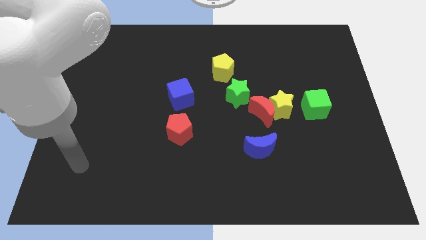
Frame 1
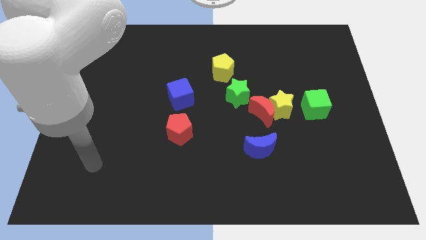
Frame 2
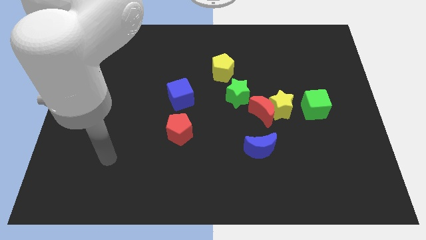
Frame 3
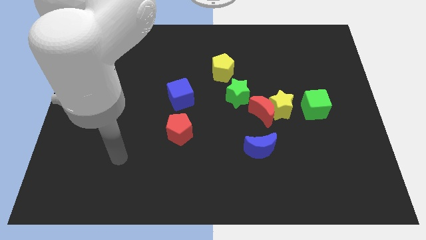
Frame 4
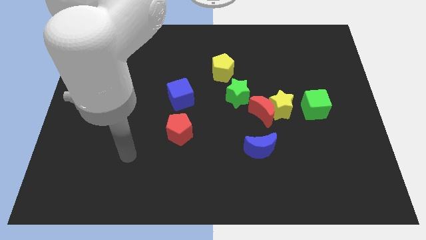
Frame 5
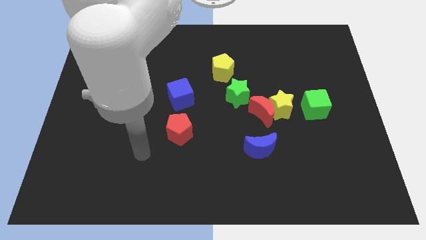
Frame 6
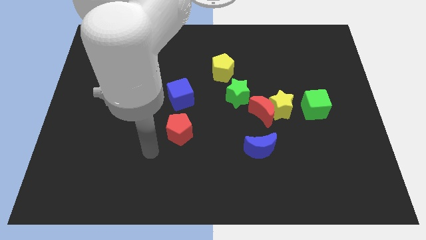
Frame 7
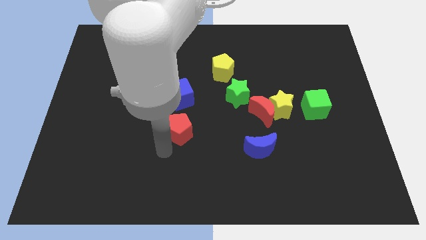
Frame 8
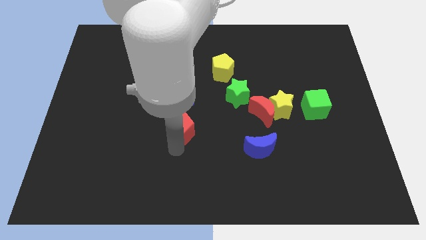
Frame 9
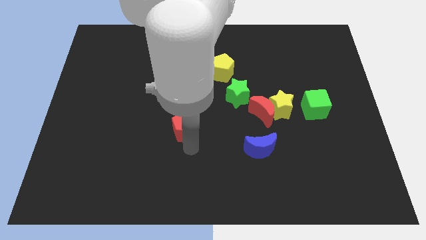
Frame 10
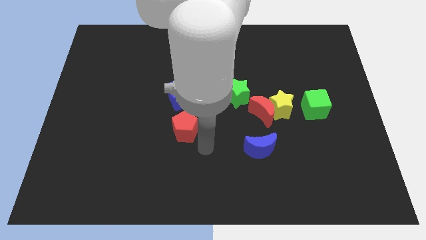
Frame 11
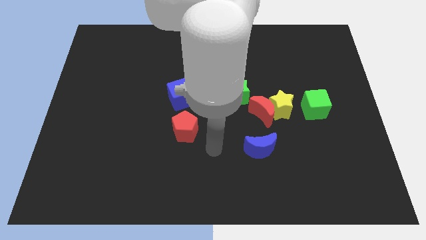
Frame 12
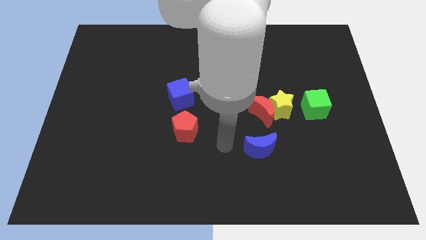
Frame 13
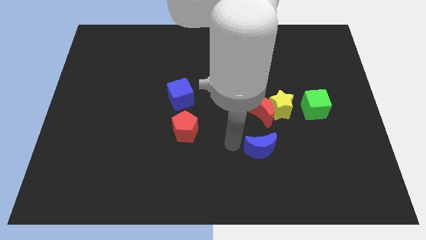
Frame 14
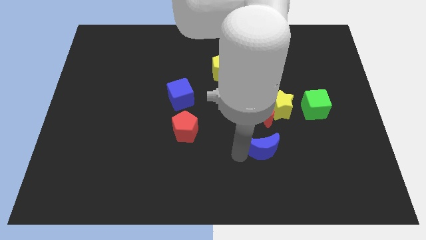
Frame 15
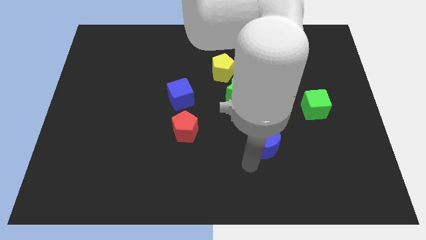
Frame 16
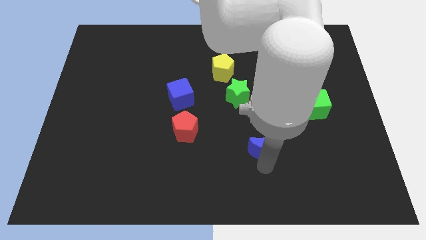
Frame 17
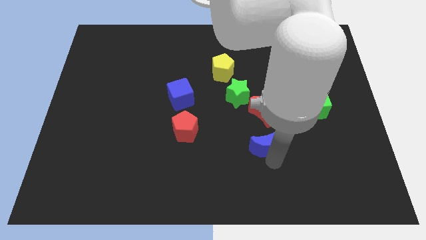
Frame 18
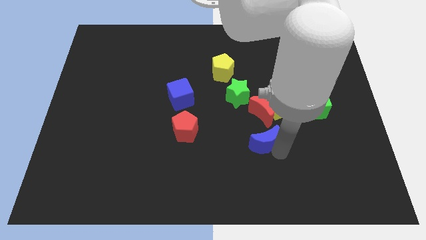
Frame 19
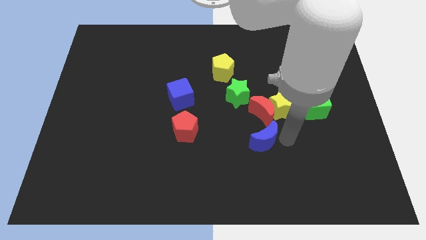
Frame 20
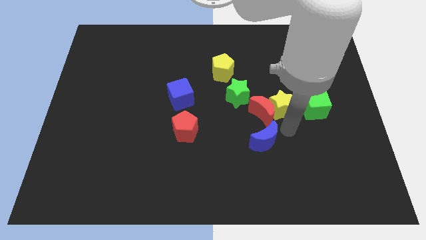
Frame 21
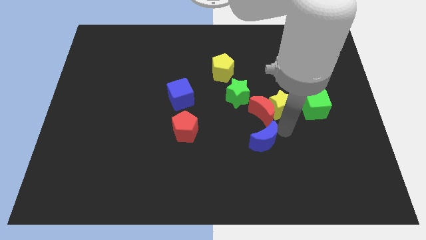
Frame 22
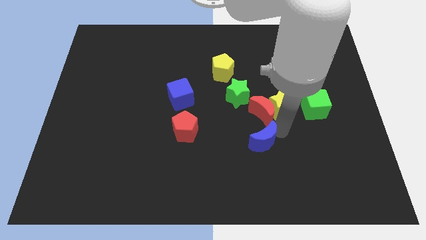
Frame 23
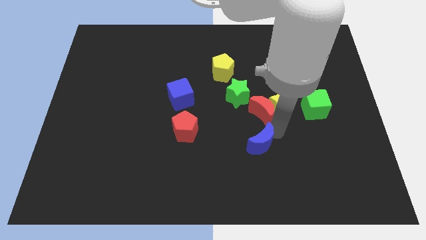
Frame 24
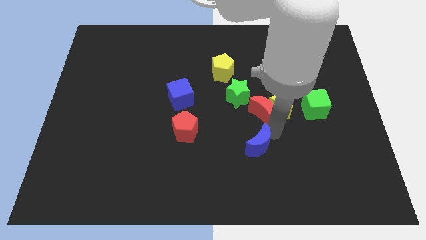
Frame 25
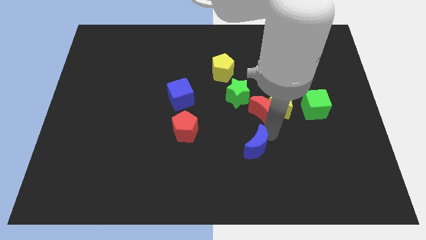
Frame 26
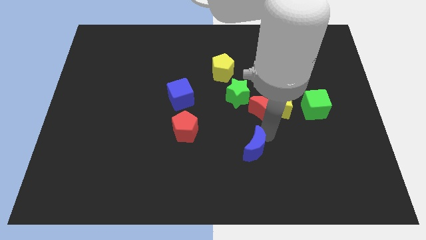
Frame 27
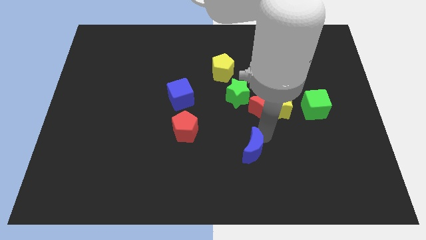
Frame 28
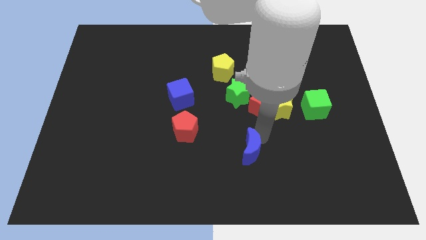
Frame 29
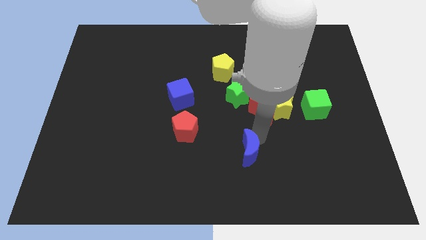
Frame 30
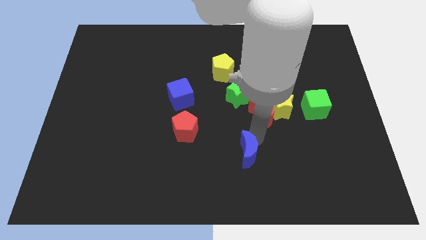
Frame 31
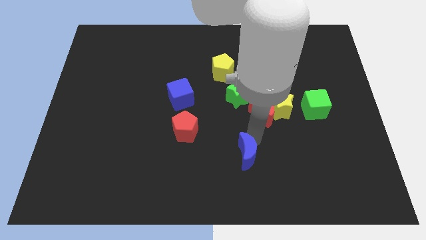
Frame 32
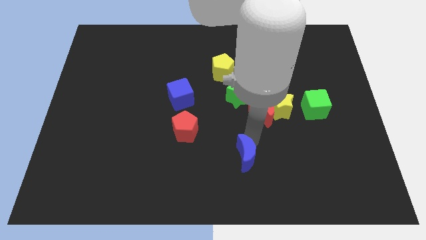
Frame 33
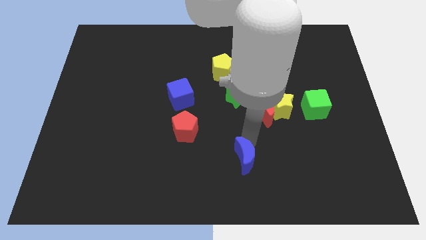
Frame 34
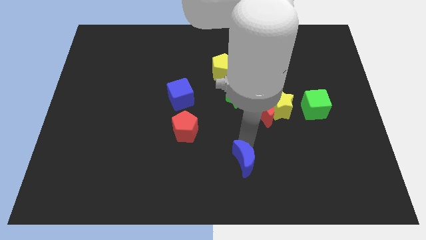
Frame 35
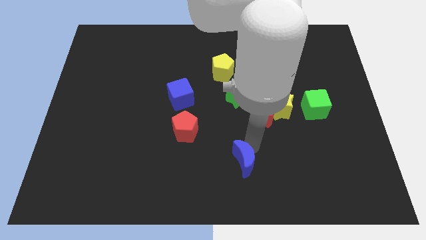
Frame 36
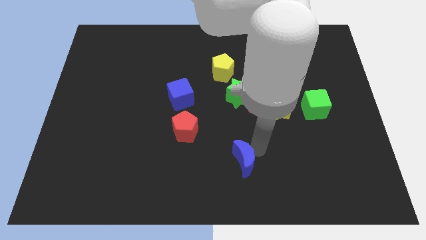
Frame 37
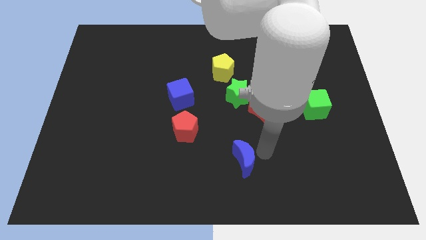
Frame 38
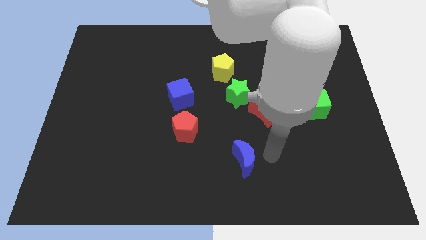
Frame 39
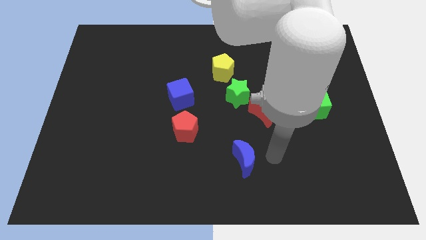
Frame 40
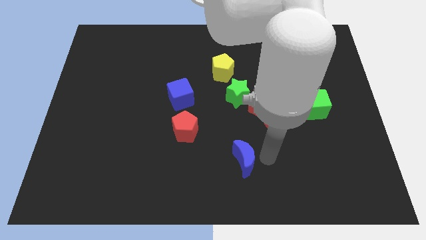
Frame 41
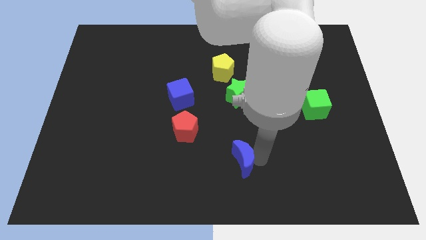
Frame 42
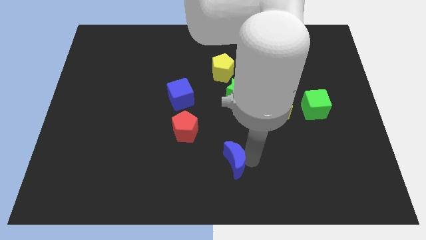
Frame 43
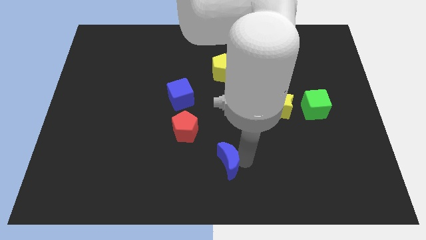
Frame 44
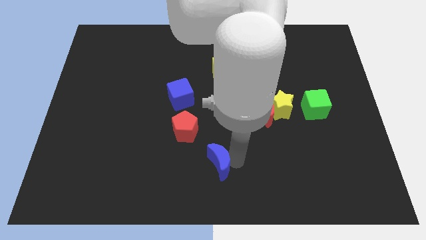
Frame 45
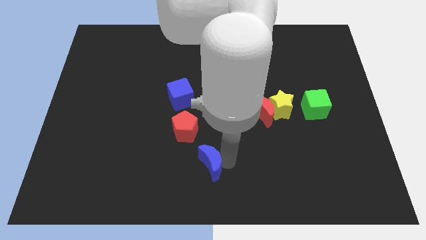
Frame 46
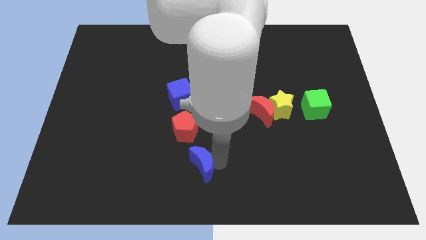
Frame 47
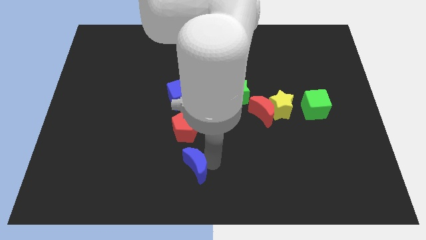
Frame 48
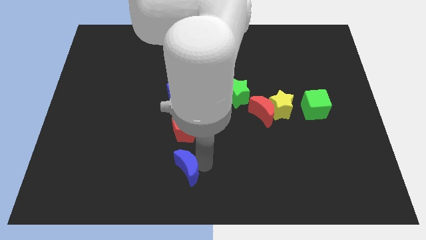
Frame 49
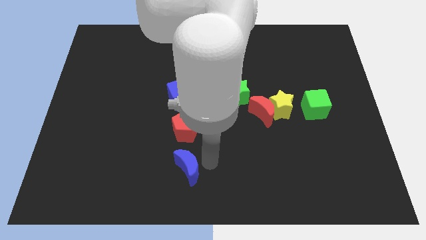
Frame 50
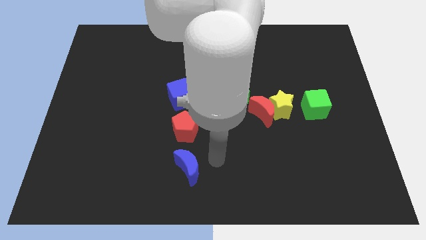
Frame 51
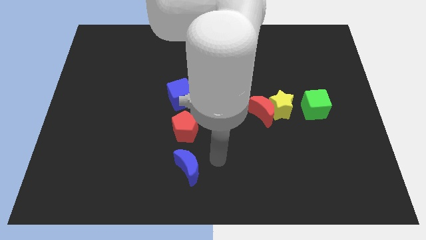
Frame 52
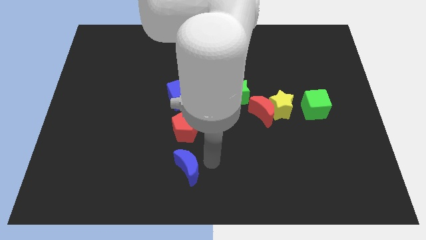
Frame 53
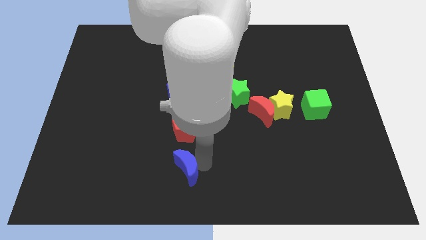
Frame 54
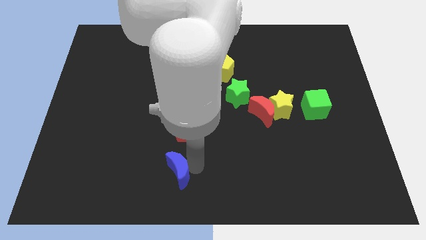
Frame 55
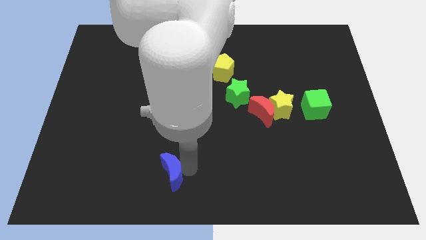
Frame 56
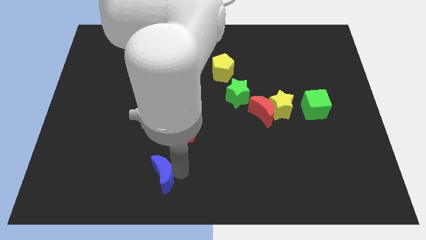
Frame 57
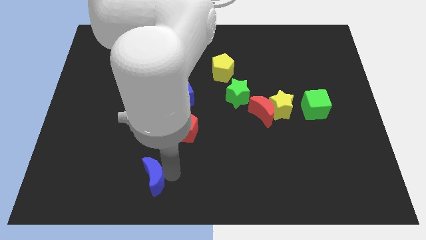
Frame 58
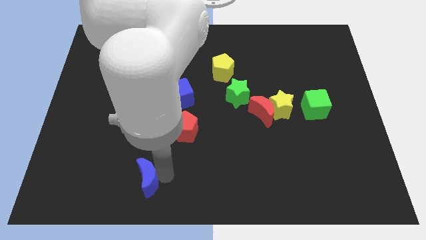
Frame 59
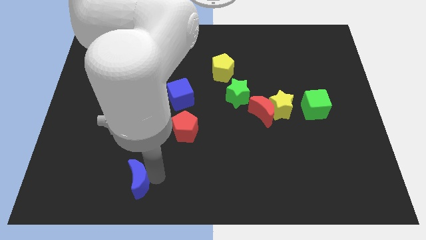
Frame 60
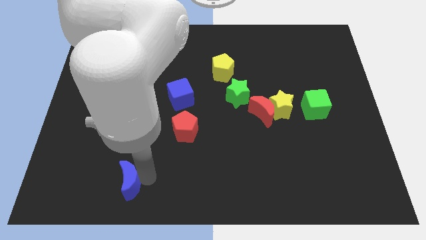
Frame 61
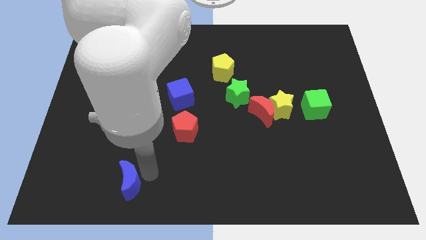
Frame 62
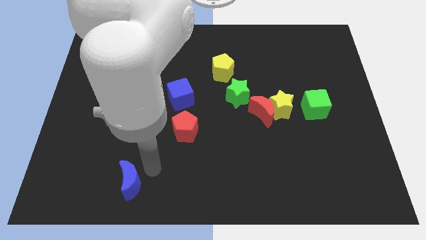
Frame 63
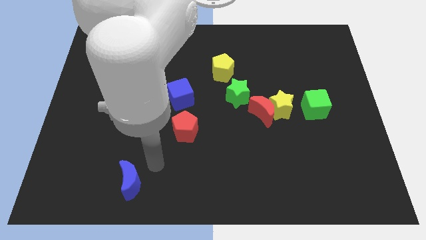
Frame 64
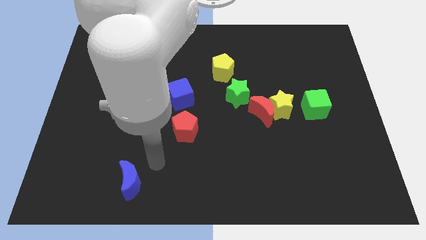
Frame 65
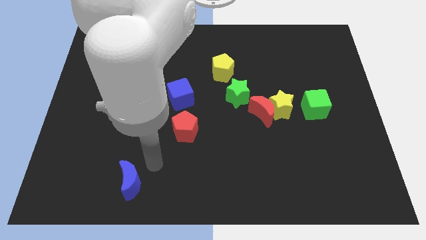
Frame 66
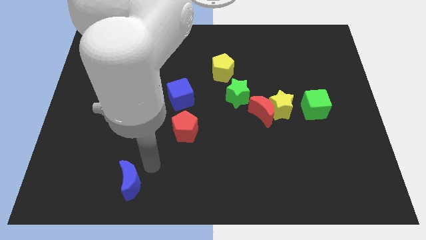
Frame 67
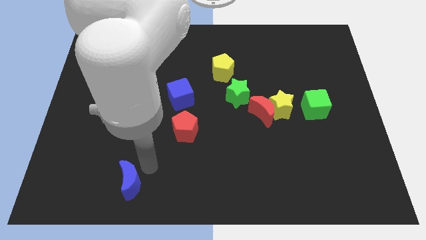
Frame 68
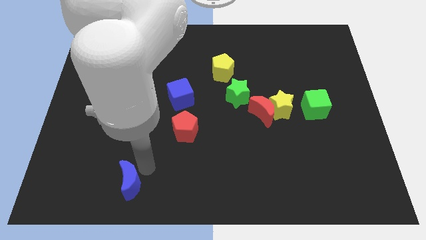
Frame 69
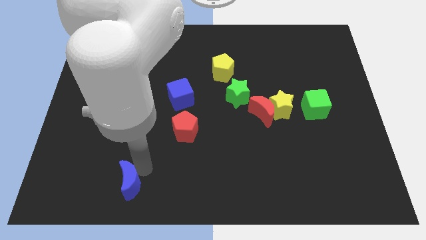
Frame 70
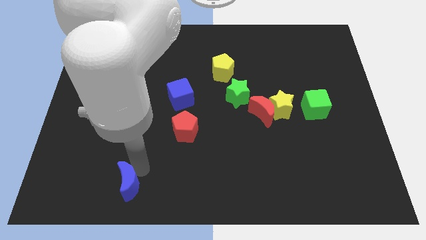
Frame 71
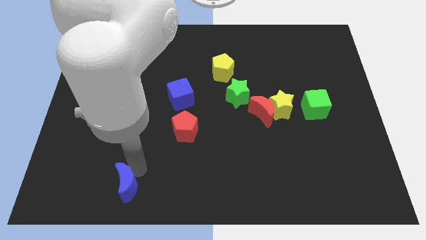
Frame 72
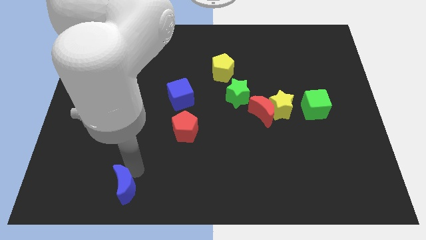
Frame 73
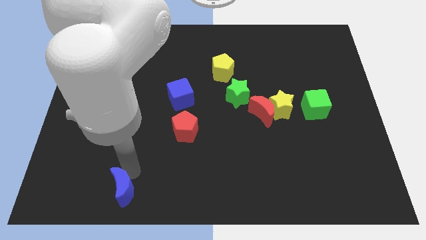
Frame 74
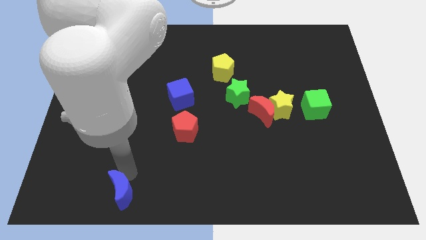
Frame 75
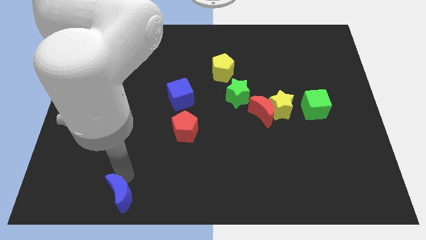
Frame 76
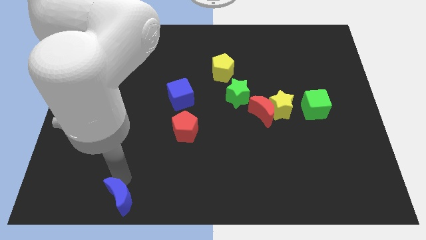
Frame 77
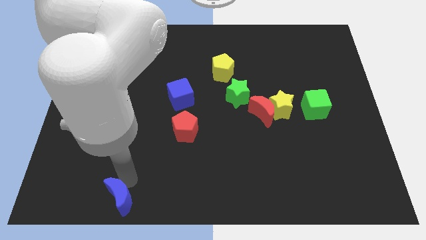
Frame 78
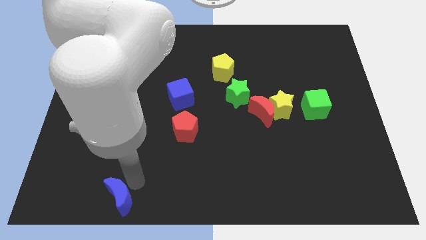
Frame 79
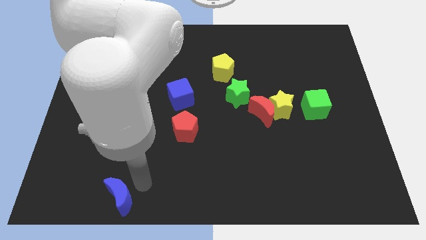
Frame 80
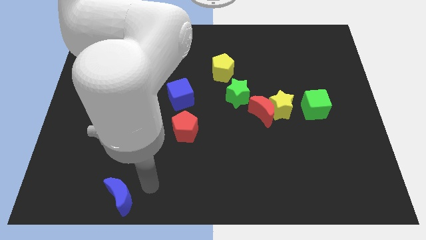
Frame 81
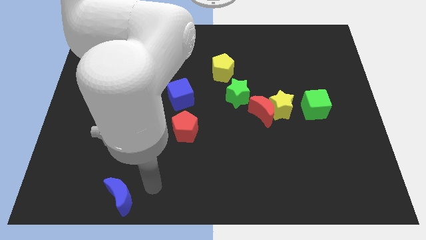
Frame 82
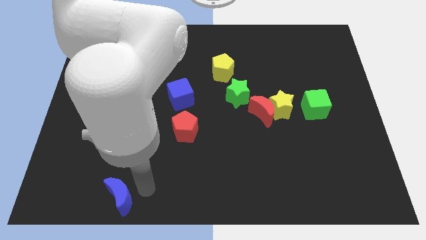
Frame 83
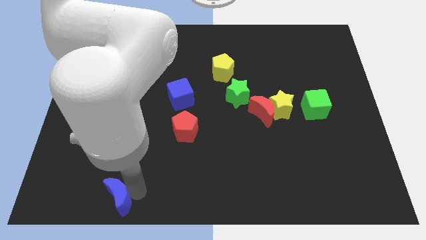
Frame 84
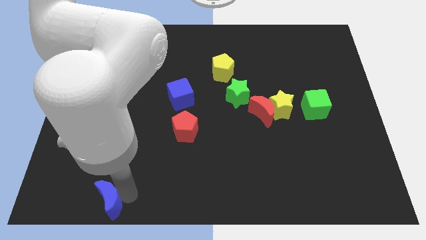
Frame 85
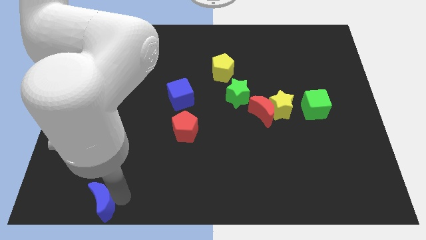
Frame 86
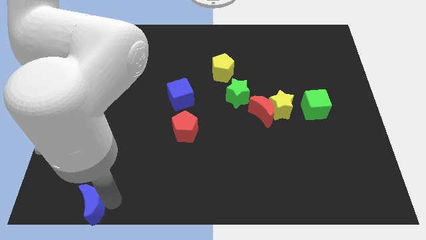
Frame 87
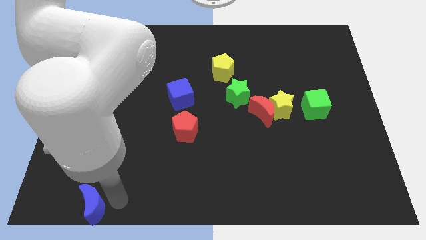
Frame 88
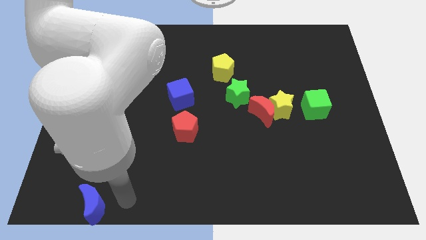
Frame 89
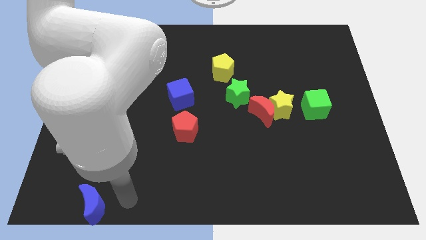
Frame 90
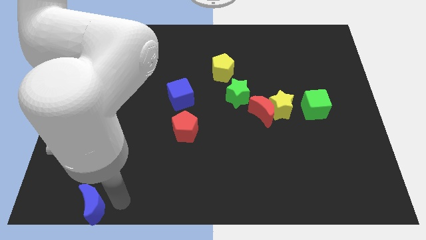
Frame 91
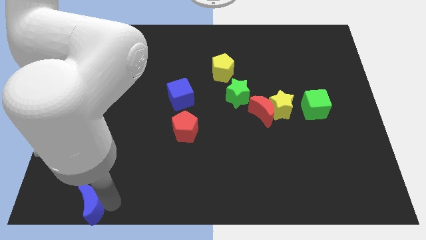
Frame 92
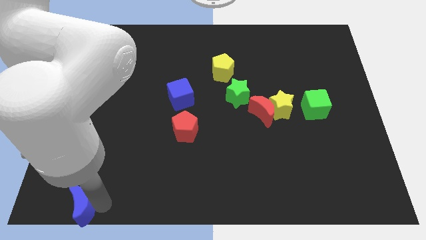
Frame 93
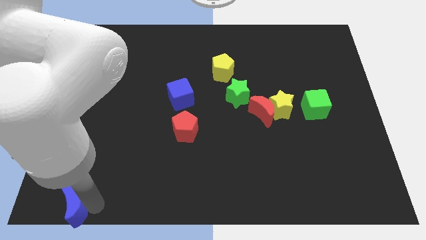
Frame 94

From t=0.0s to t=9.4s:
put the blue moon to the lower left corner
